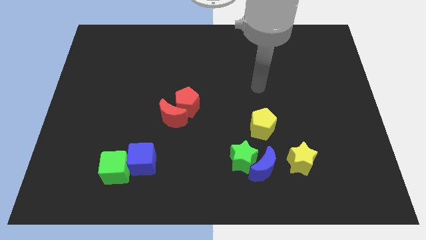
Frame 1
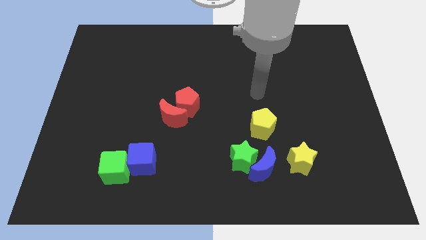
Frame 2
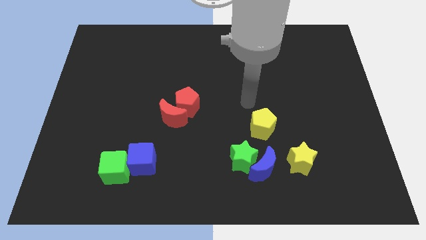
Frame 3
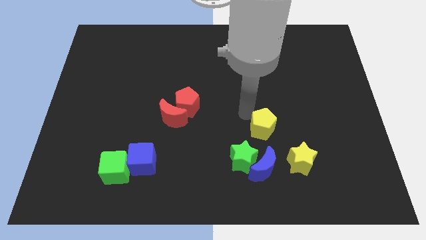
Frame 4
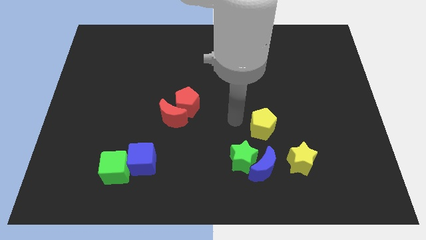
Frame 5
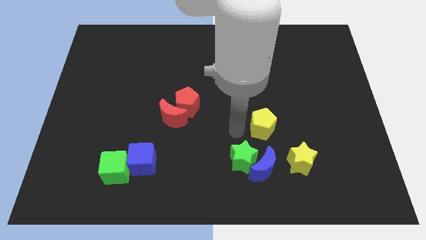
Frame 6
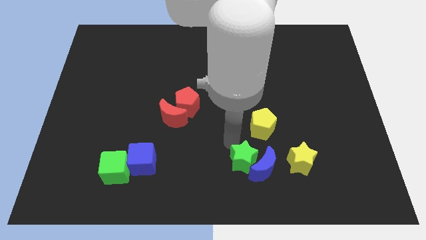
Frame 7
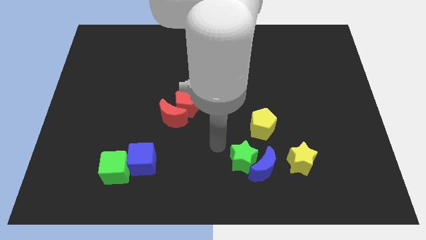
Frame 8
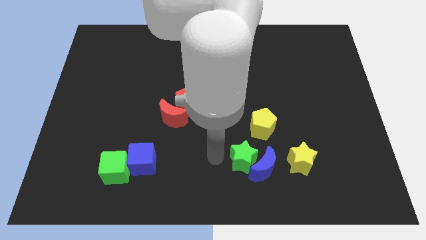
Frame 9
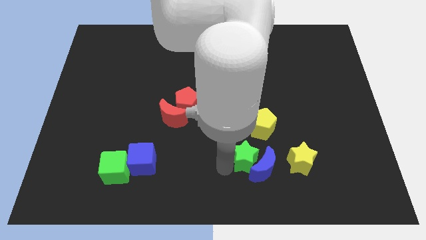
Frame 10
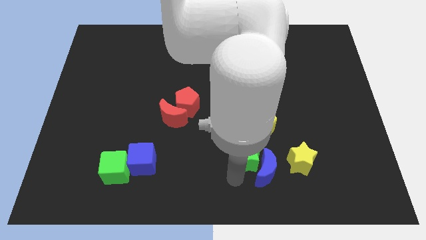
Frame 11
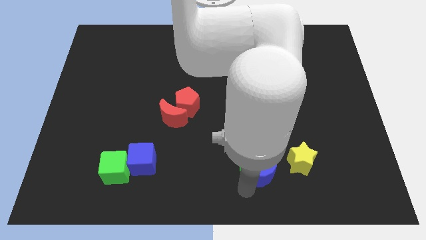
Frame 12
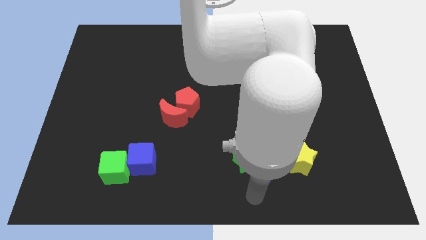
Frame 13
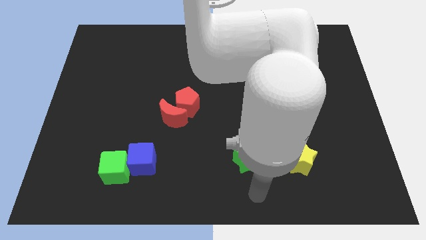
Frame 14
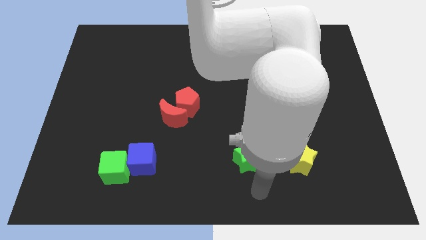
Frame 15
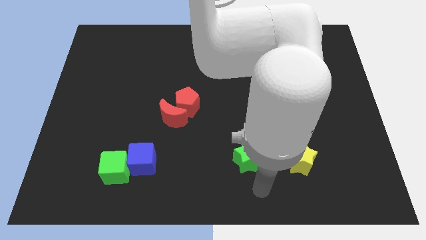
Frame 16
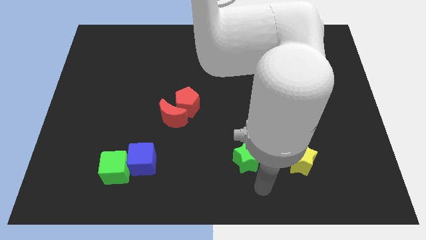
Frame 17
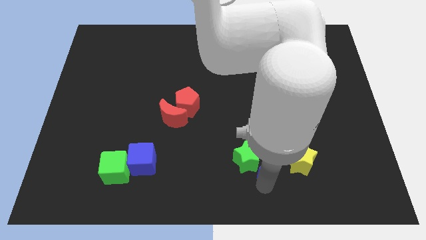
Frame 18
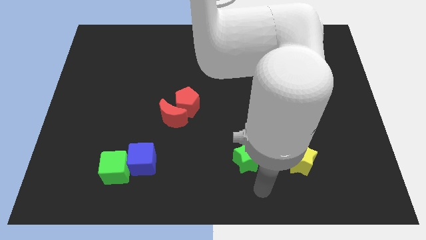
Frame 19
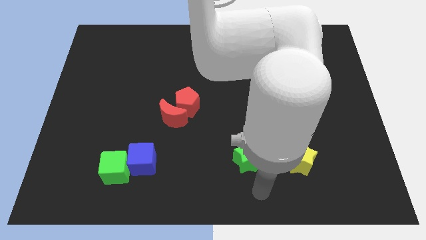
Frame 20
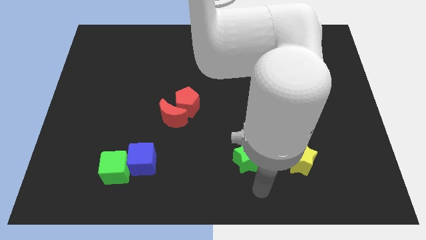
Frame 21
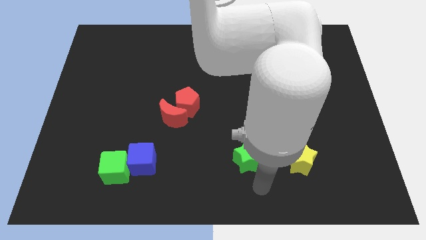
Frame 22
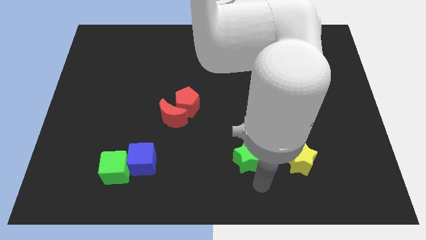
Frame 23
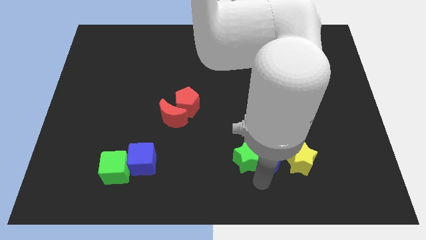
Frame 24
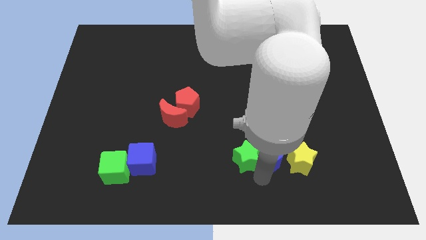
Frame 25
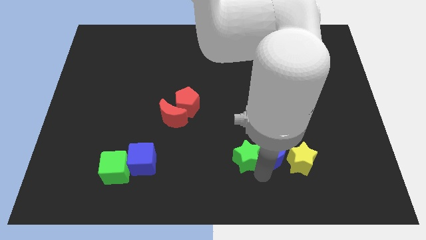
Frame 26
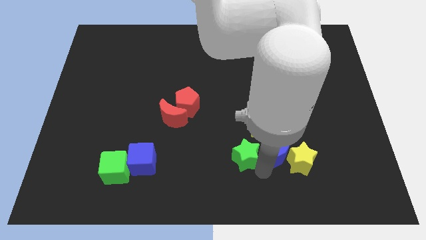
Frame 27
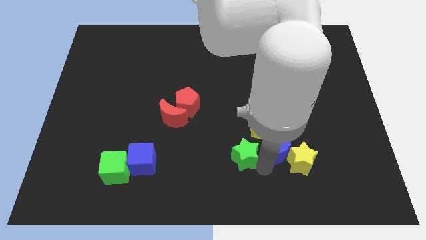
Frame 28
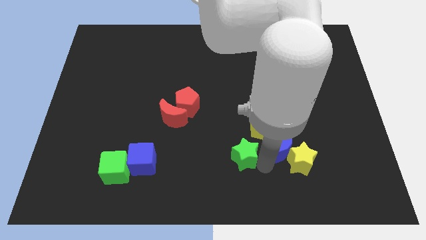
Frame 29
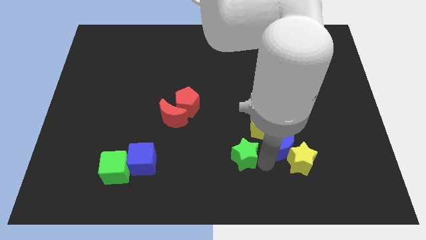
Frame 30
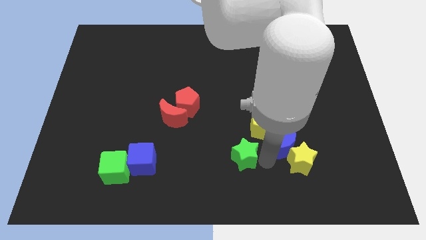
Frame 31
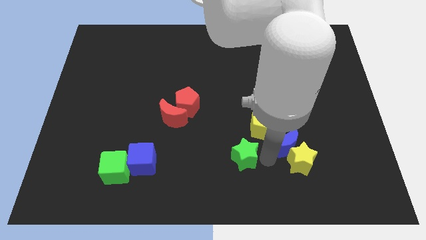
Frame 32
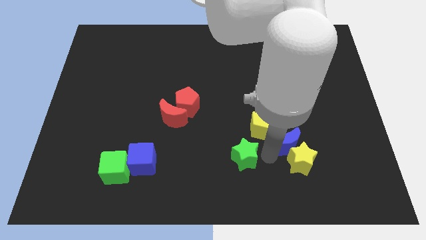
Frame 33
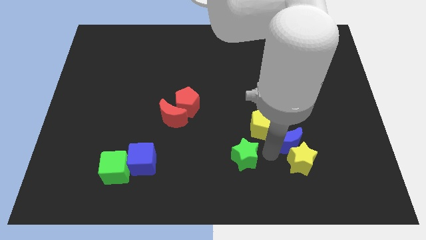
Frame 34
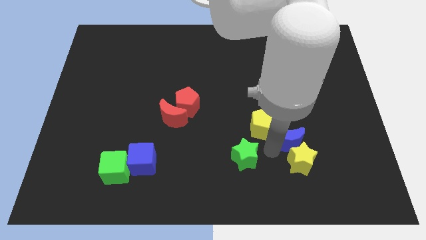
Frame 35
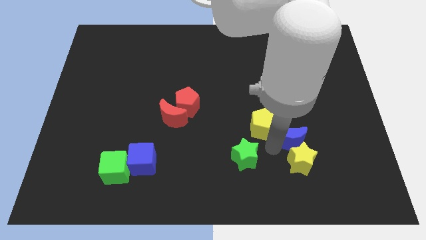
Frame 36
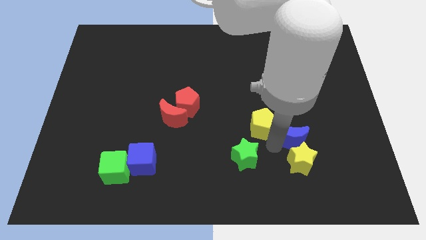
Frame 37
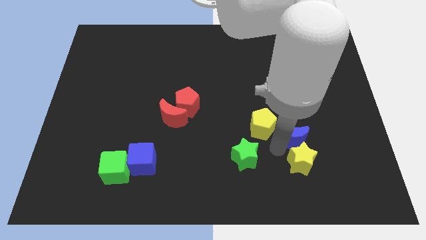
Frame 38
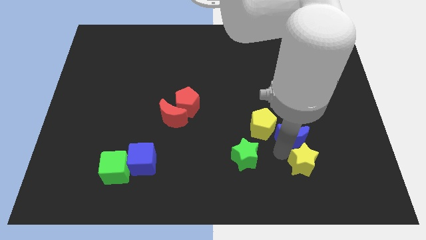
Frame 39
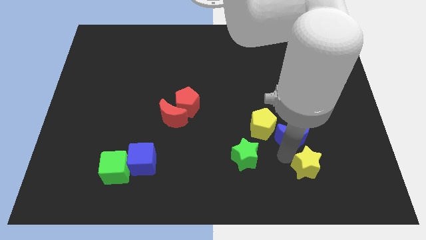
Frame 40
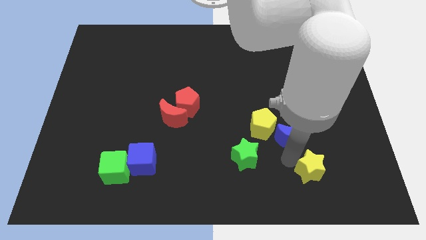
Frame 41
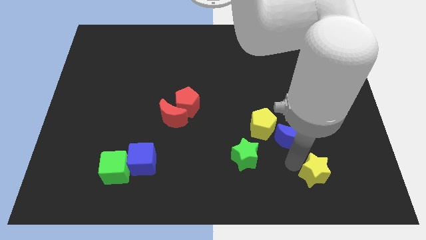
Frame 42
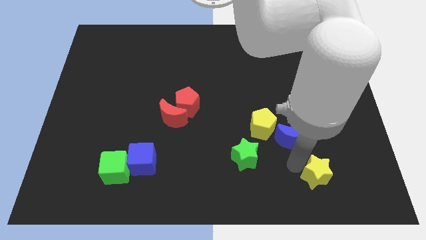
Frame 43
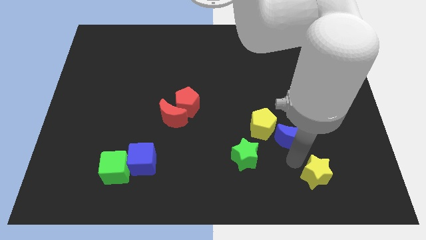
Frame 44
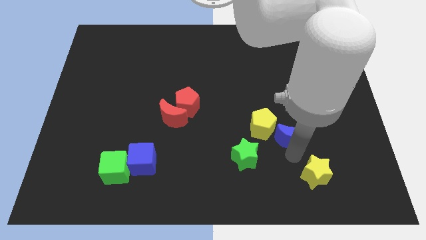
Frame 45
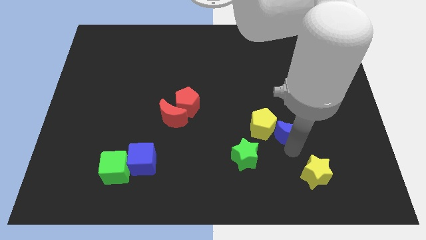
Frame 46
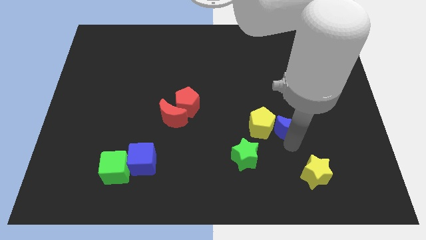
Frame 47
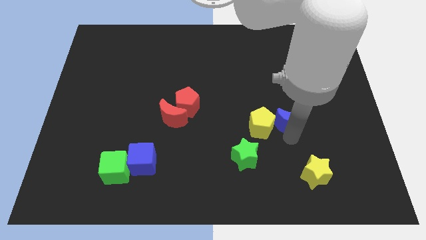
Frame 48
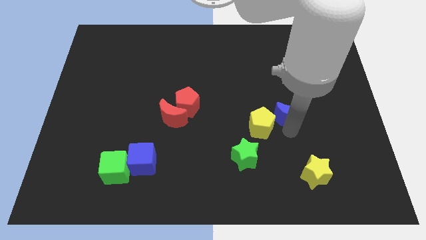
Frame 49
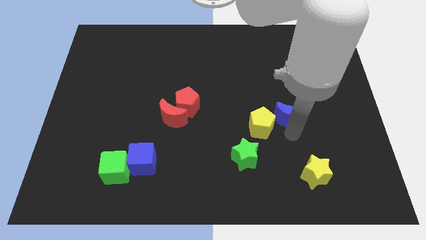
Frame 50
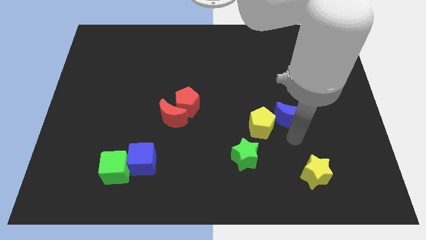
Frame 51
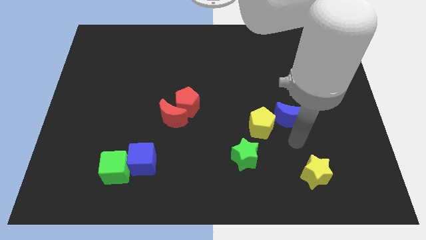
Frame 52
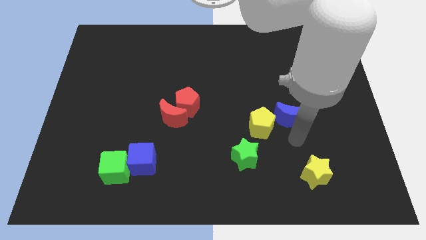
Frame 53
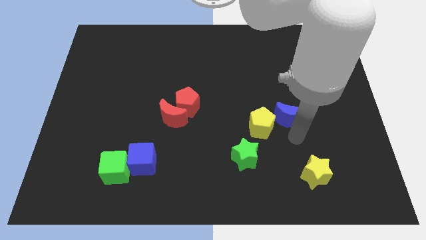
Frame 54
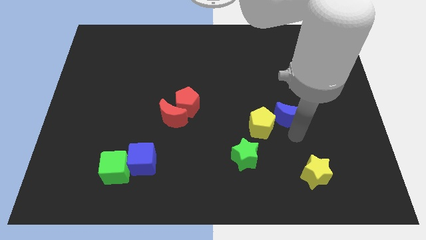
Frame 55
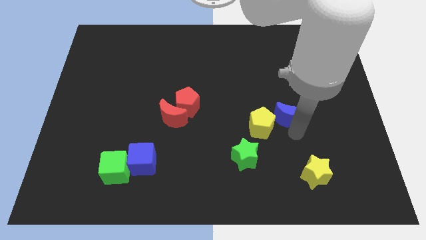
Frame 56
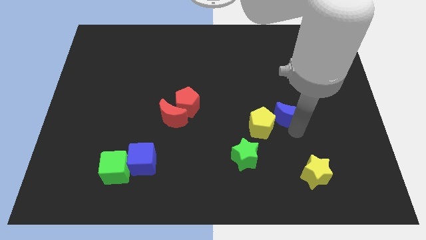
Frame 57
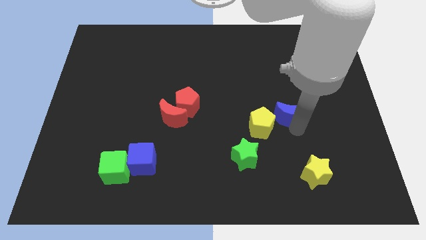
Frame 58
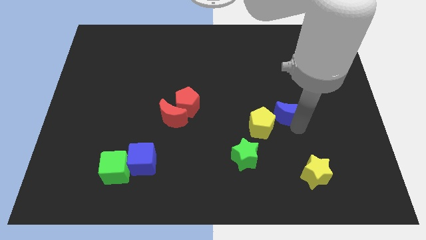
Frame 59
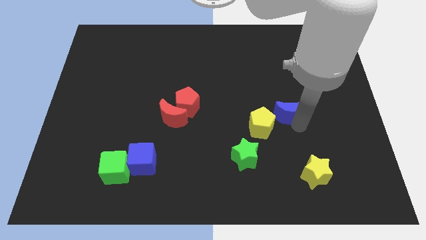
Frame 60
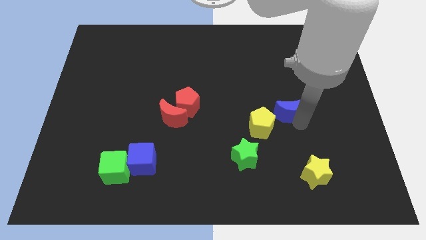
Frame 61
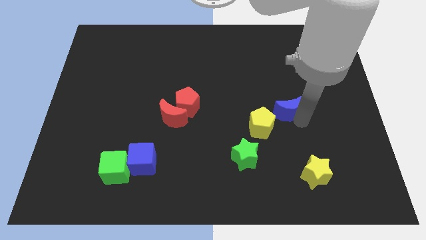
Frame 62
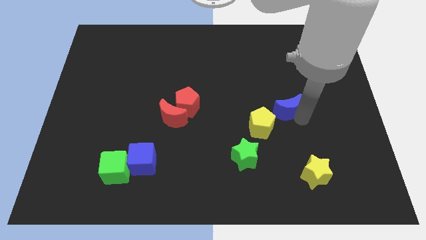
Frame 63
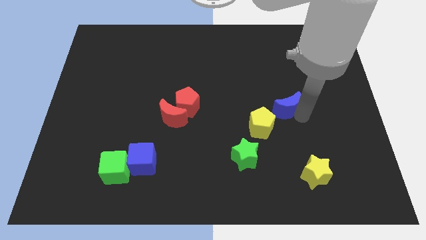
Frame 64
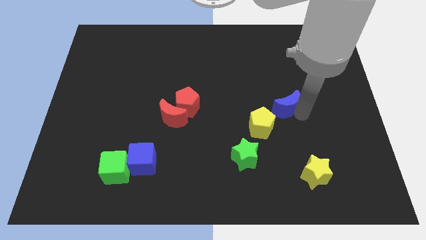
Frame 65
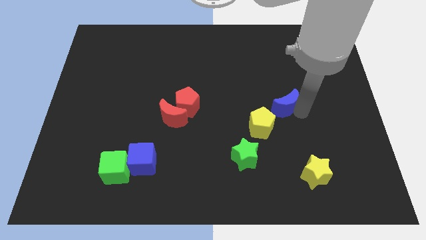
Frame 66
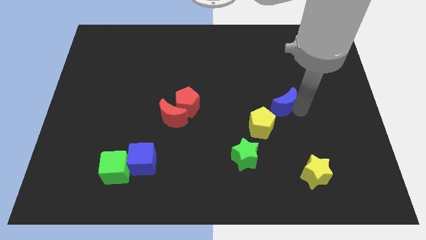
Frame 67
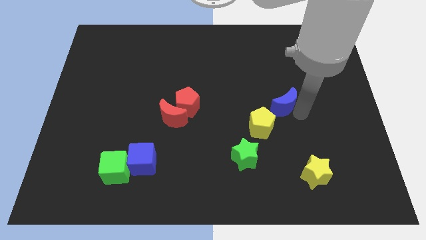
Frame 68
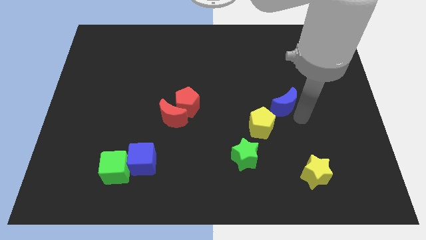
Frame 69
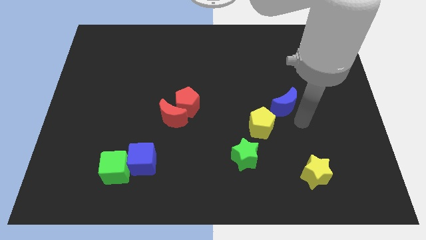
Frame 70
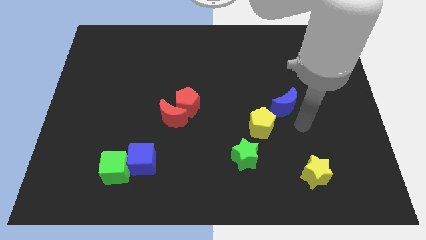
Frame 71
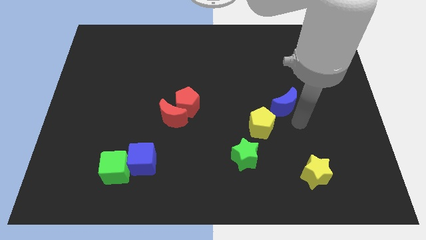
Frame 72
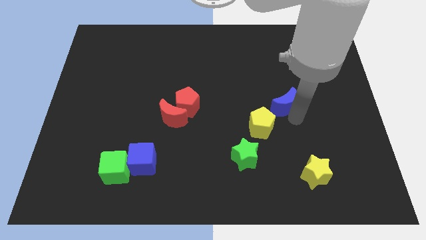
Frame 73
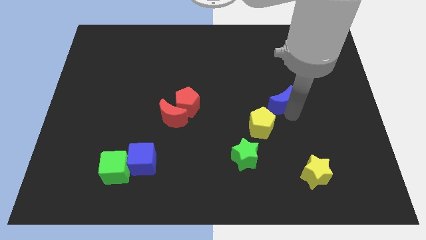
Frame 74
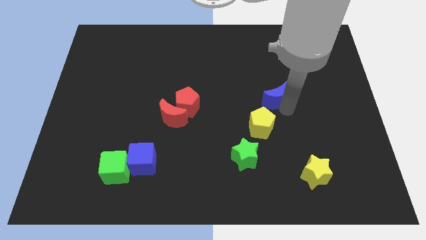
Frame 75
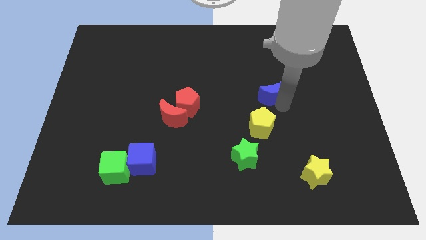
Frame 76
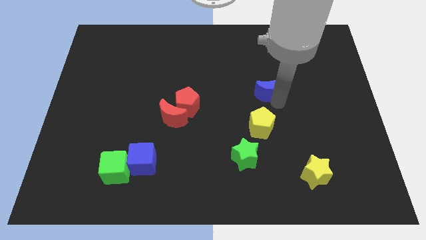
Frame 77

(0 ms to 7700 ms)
push the blue moon upwards

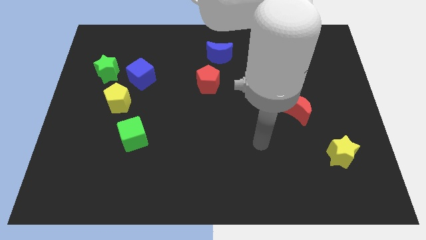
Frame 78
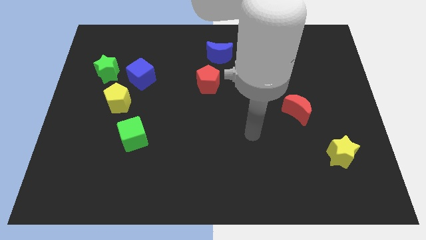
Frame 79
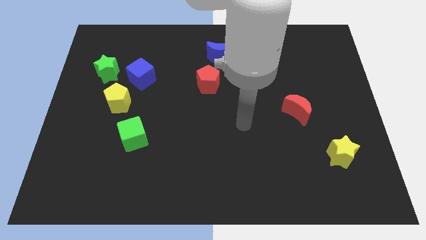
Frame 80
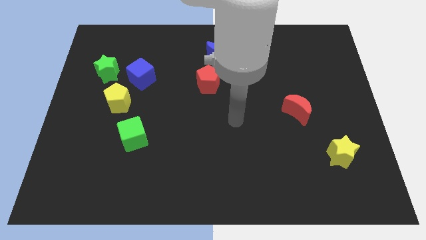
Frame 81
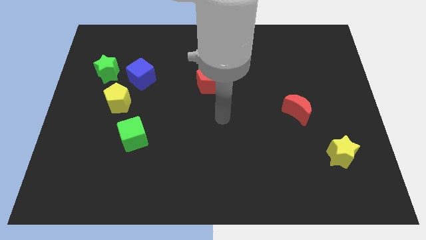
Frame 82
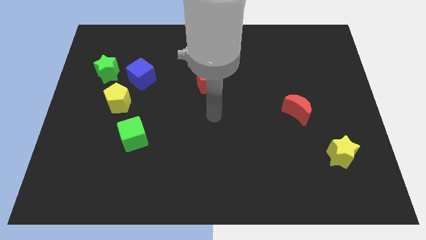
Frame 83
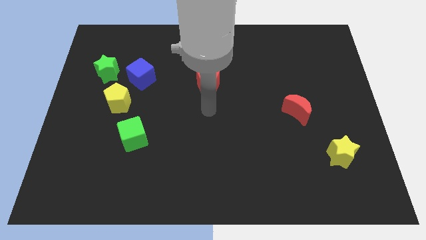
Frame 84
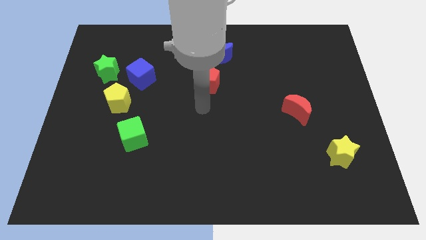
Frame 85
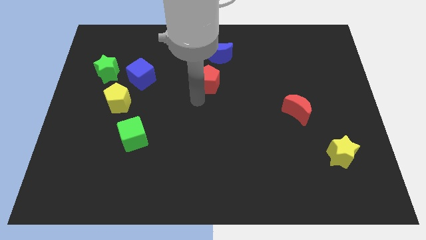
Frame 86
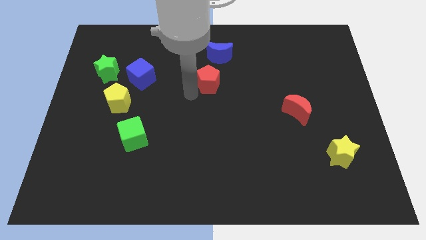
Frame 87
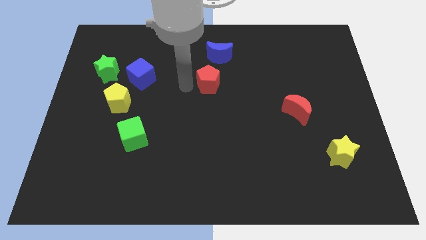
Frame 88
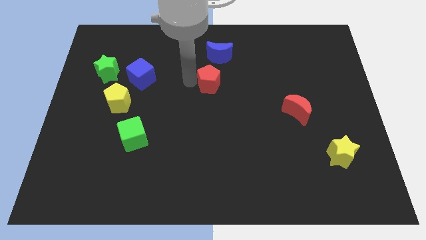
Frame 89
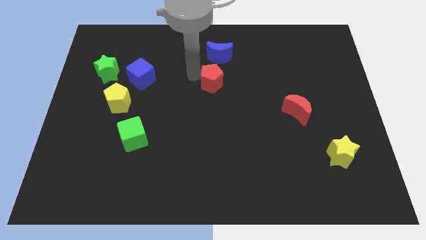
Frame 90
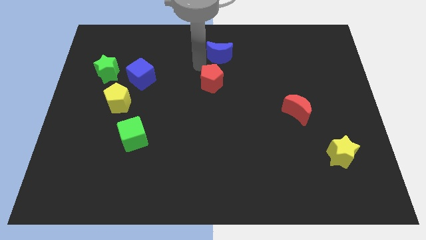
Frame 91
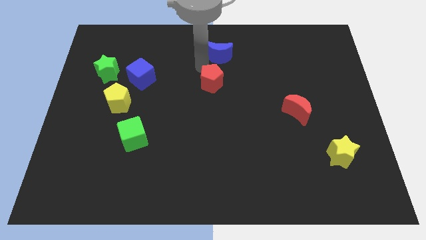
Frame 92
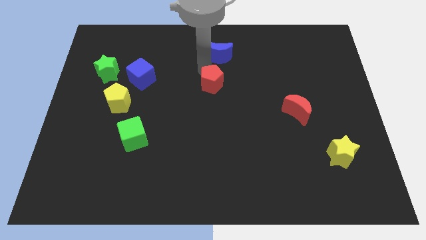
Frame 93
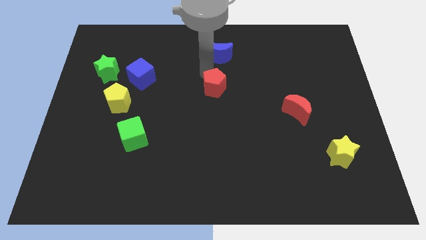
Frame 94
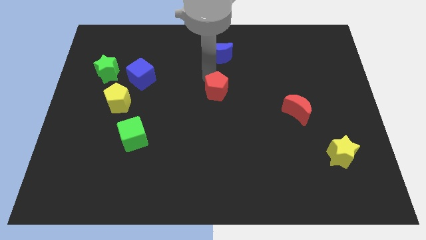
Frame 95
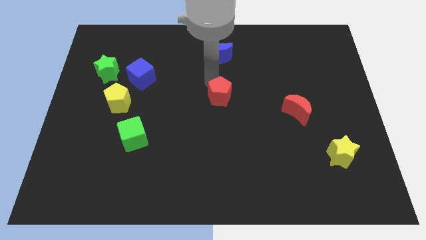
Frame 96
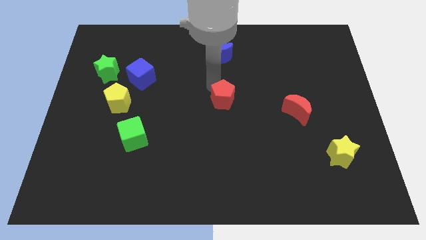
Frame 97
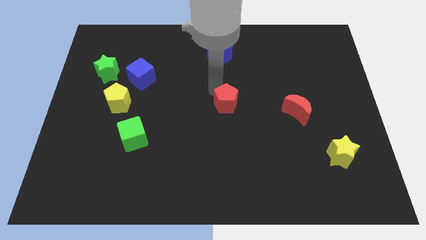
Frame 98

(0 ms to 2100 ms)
slightly slide the red pentagon down and right
